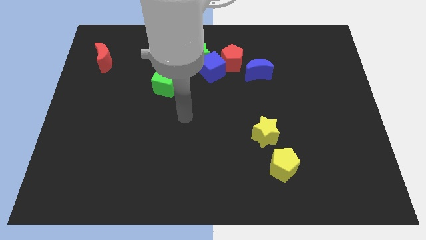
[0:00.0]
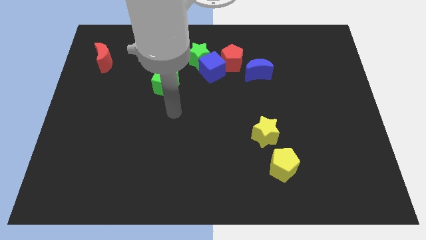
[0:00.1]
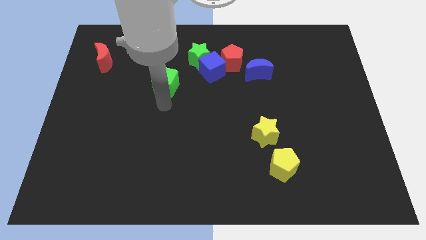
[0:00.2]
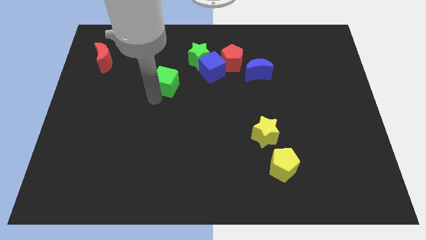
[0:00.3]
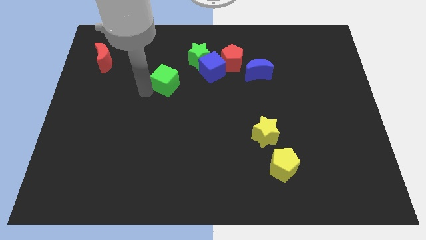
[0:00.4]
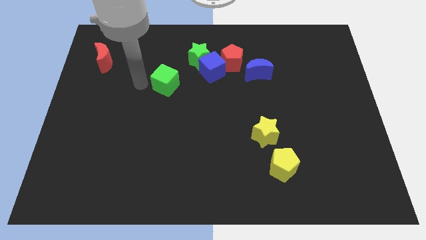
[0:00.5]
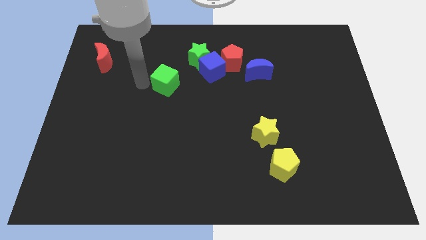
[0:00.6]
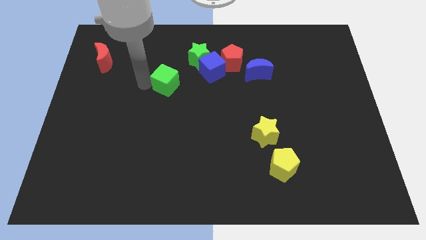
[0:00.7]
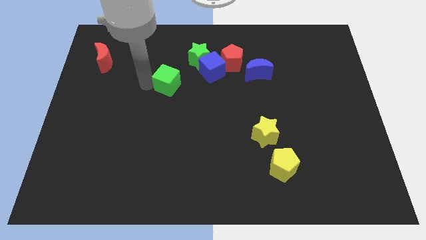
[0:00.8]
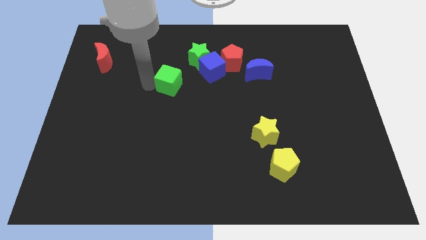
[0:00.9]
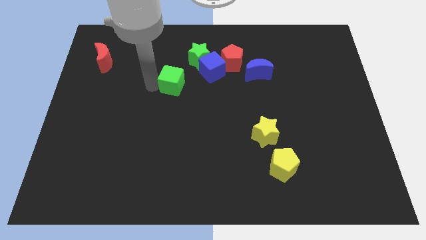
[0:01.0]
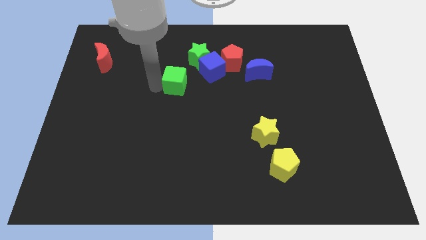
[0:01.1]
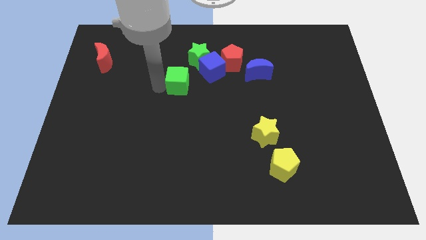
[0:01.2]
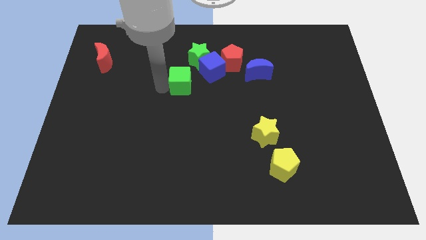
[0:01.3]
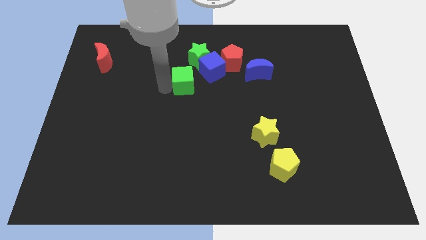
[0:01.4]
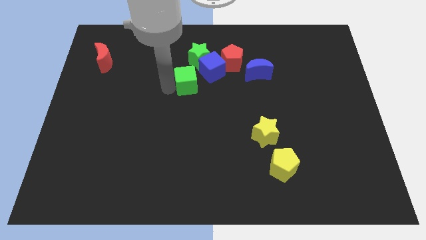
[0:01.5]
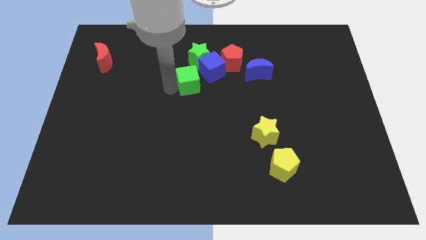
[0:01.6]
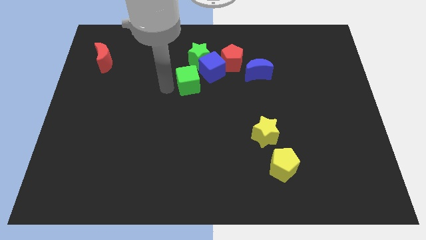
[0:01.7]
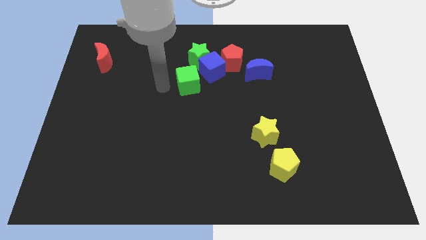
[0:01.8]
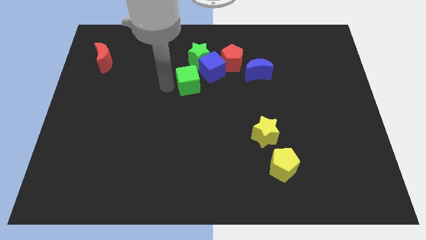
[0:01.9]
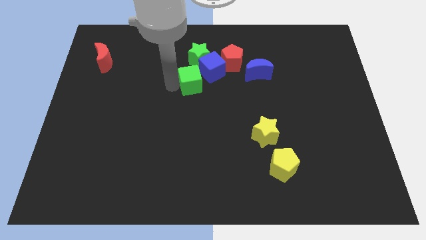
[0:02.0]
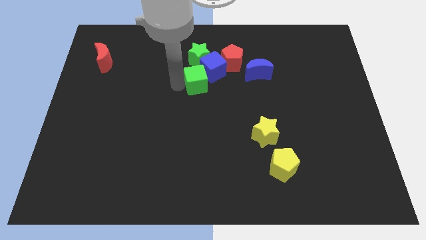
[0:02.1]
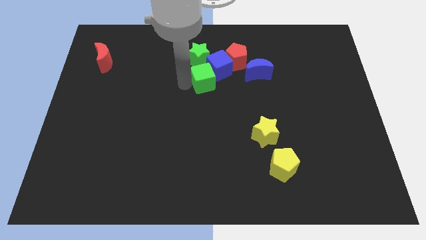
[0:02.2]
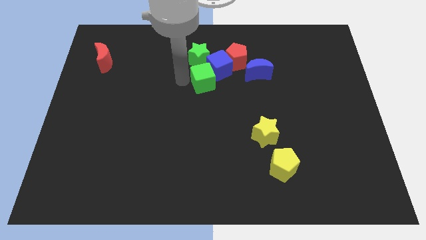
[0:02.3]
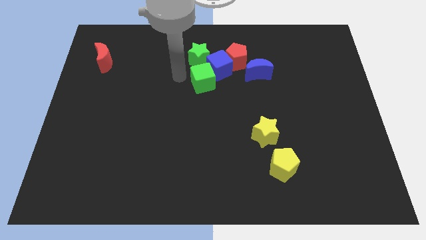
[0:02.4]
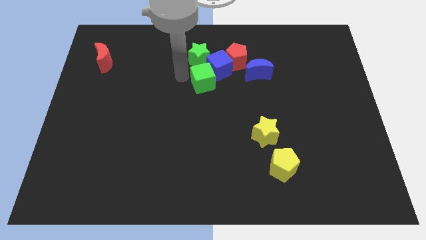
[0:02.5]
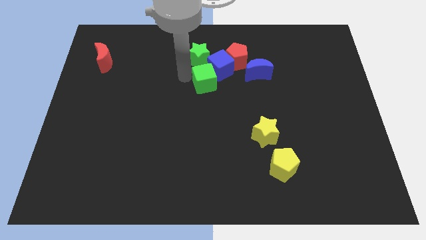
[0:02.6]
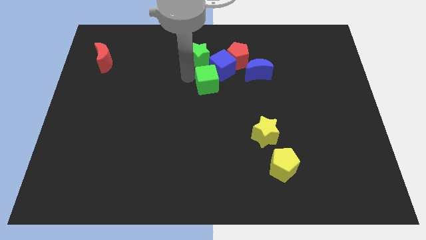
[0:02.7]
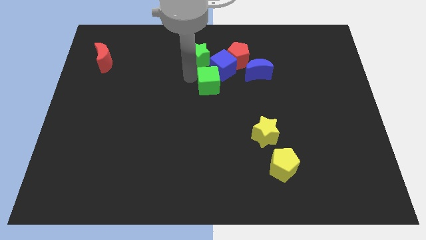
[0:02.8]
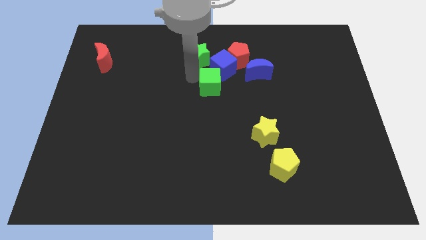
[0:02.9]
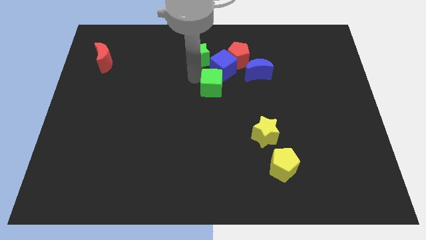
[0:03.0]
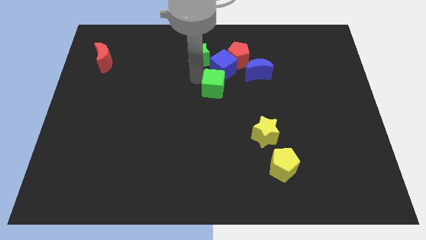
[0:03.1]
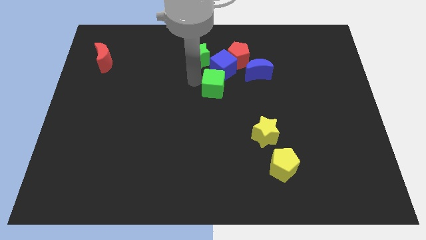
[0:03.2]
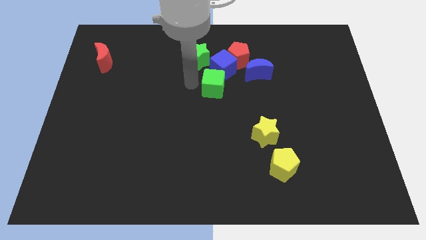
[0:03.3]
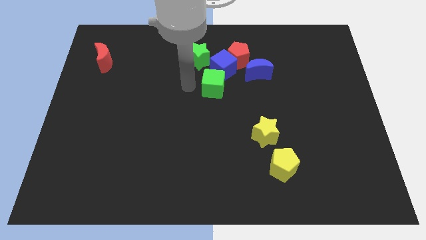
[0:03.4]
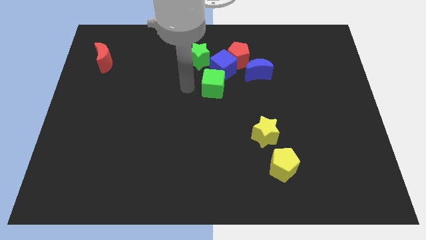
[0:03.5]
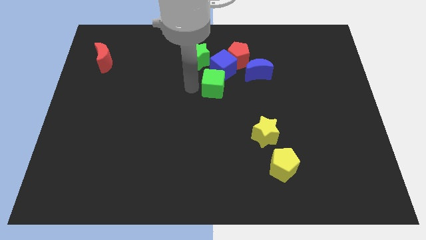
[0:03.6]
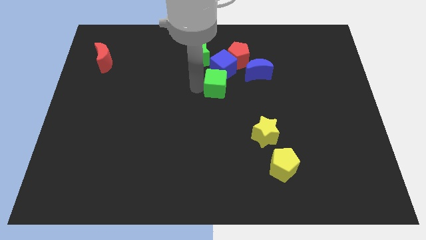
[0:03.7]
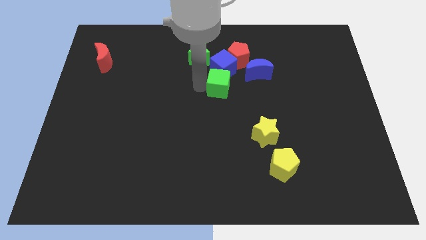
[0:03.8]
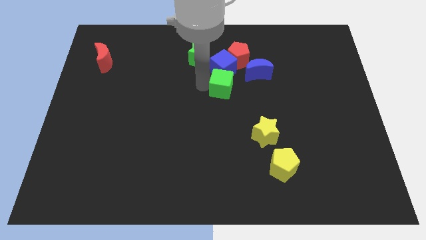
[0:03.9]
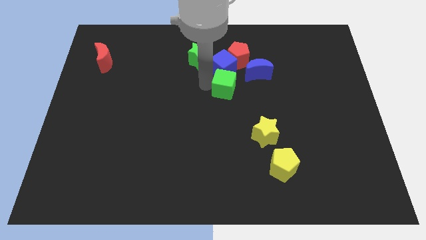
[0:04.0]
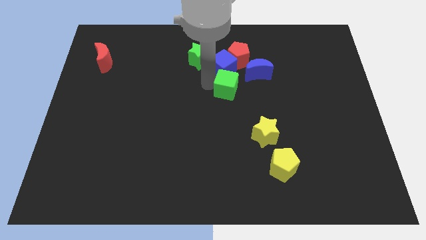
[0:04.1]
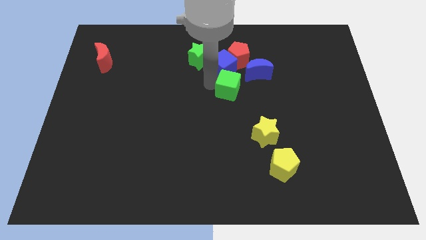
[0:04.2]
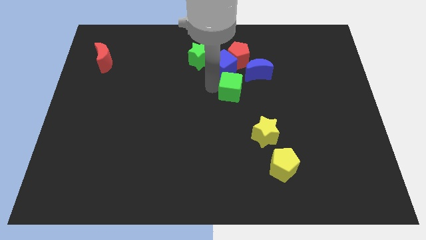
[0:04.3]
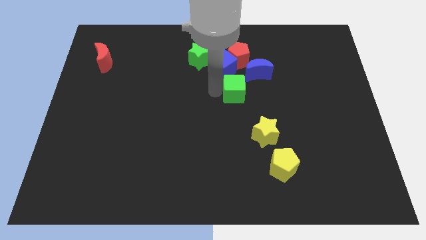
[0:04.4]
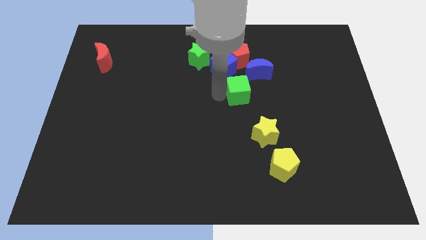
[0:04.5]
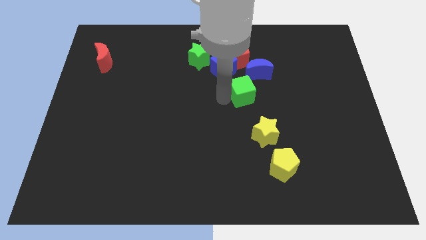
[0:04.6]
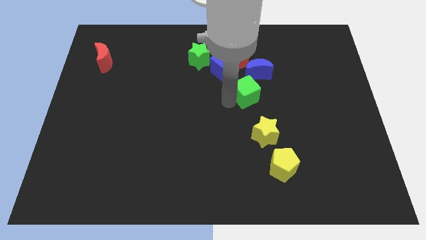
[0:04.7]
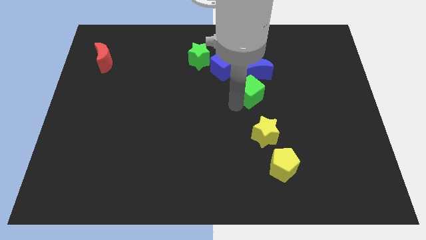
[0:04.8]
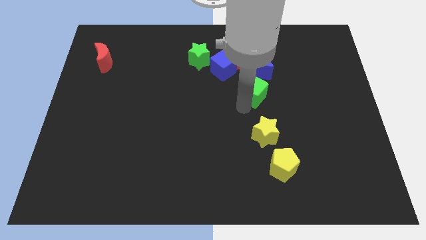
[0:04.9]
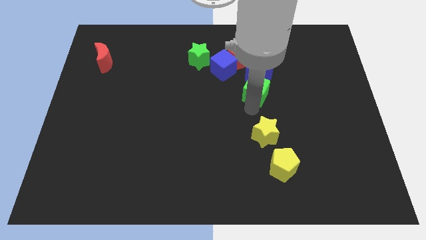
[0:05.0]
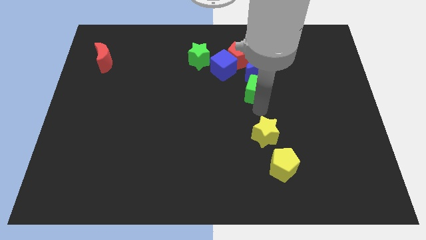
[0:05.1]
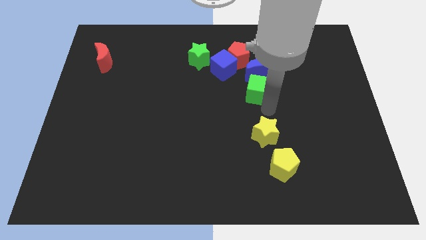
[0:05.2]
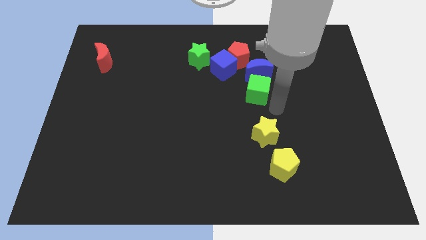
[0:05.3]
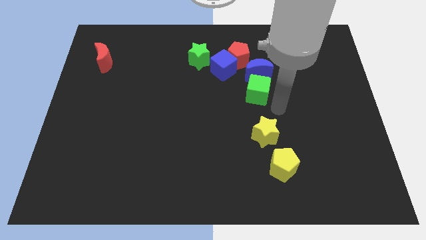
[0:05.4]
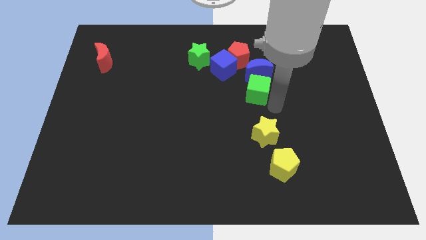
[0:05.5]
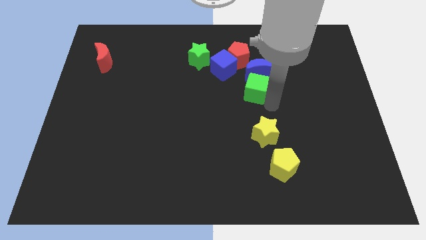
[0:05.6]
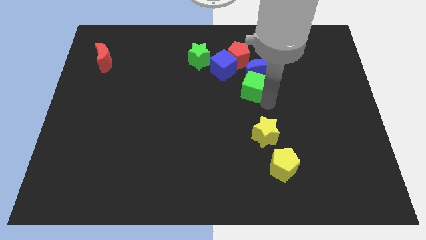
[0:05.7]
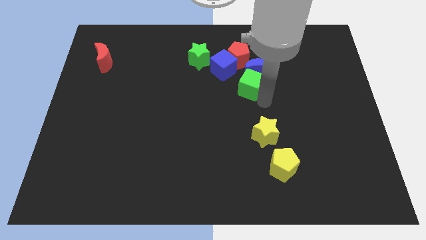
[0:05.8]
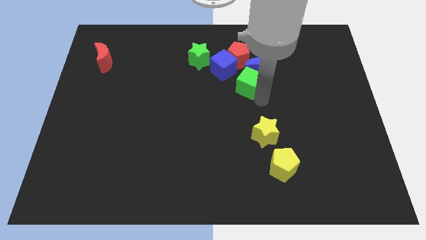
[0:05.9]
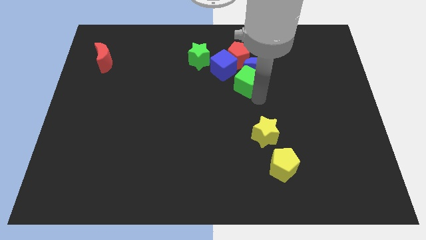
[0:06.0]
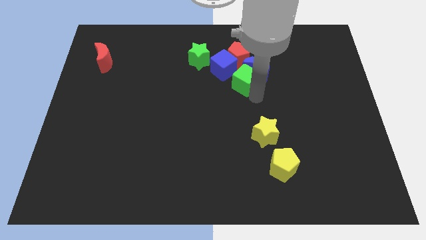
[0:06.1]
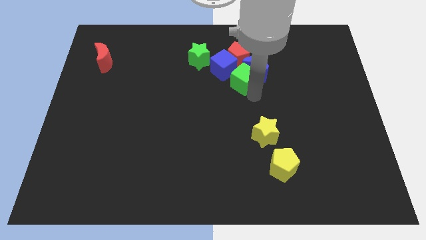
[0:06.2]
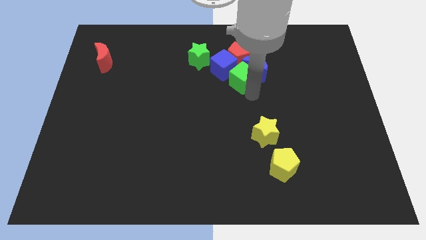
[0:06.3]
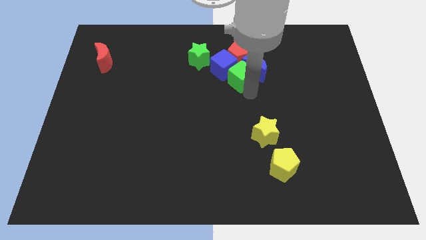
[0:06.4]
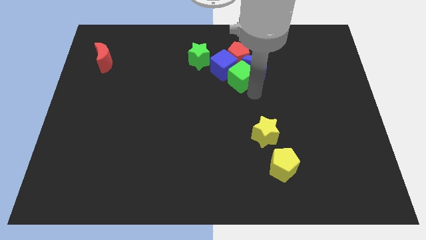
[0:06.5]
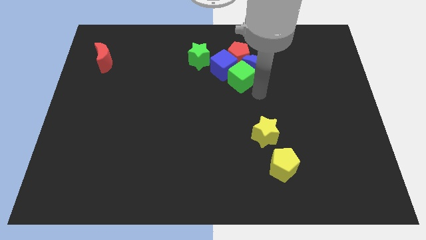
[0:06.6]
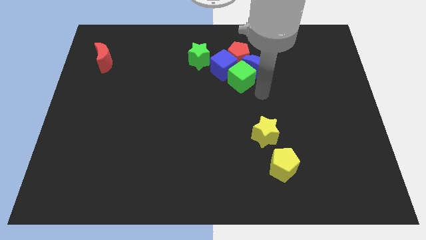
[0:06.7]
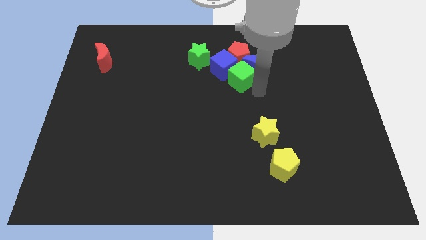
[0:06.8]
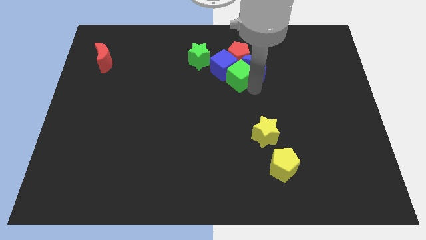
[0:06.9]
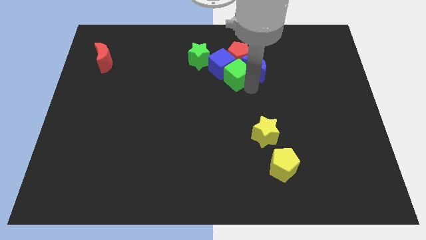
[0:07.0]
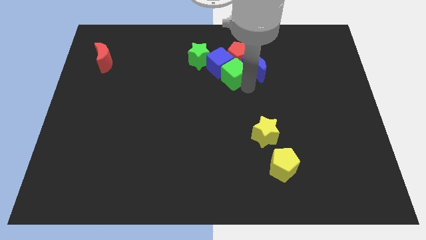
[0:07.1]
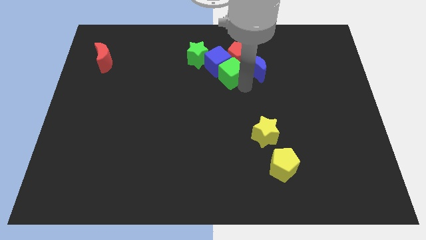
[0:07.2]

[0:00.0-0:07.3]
push the green cube towards the red pentagon
